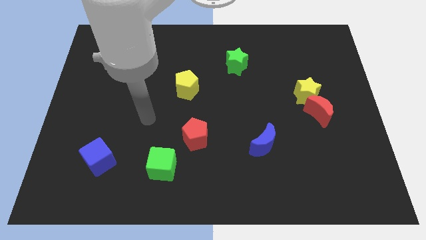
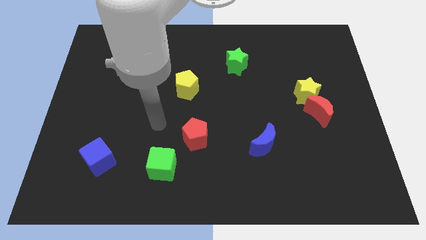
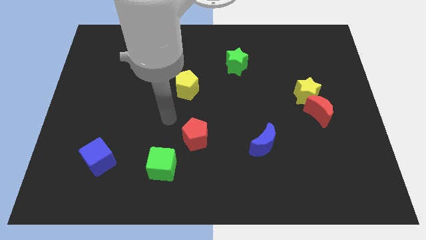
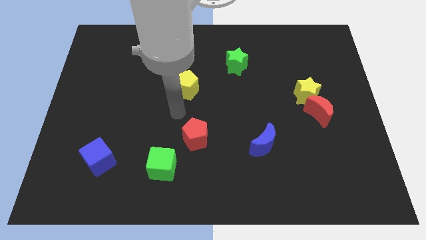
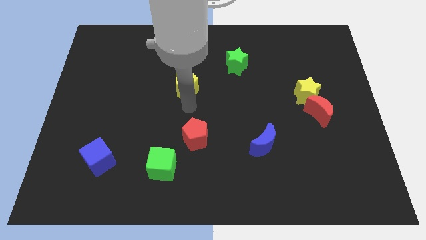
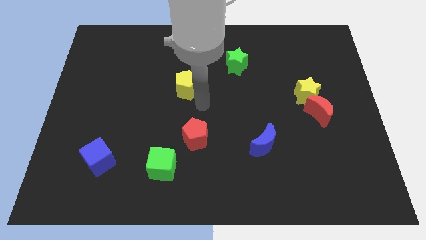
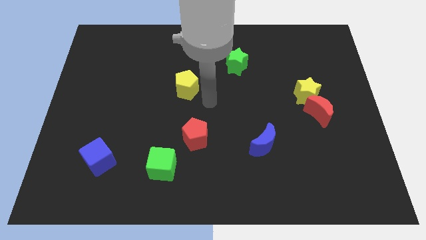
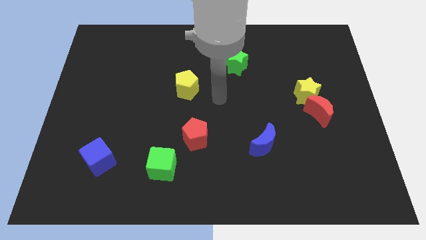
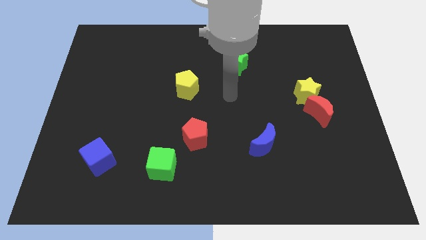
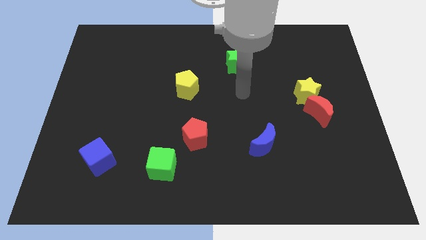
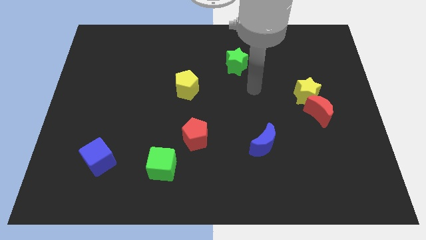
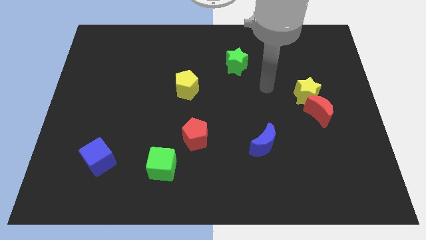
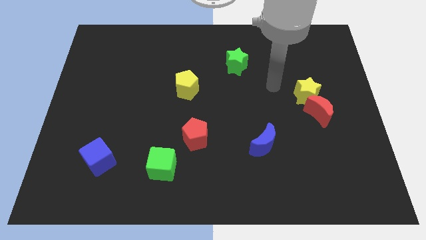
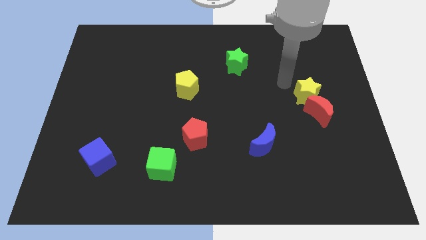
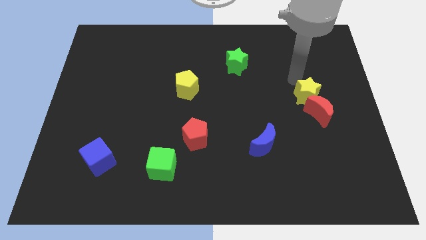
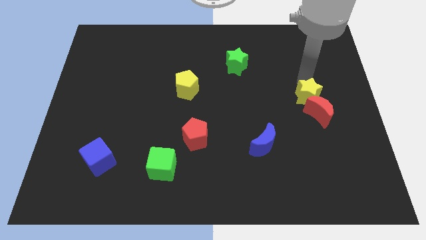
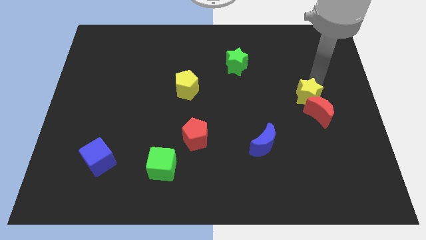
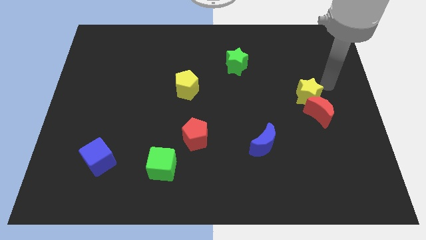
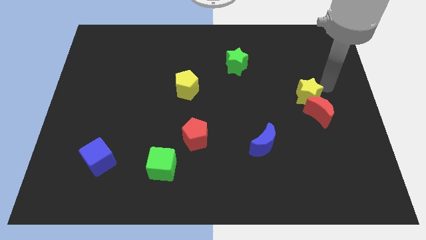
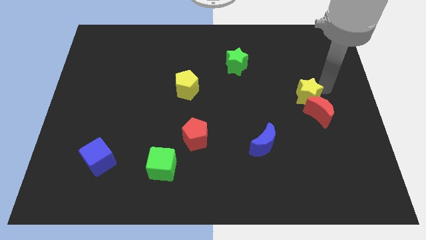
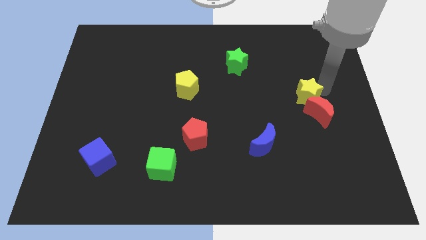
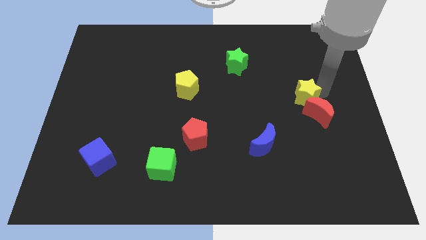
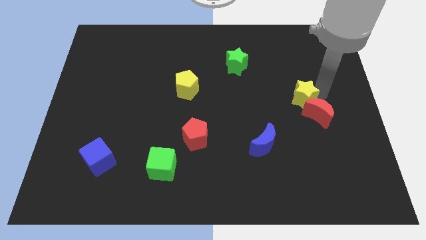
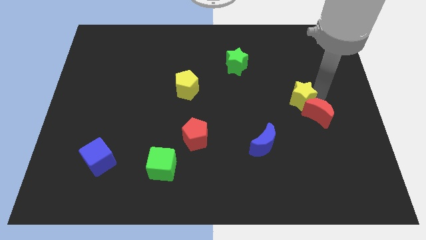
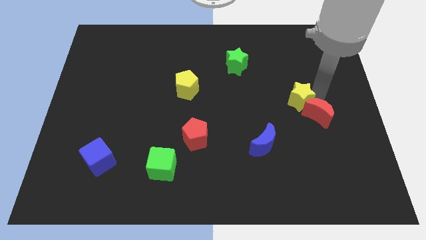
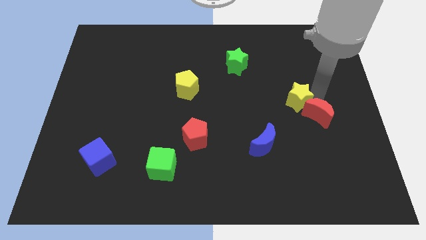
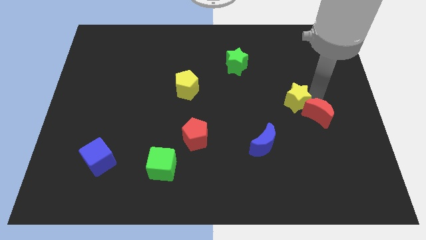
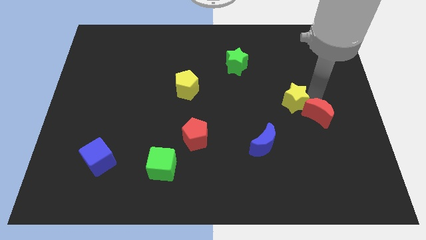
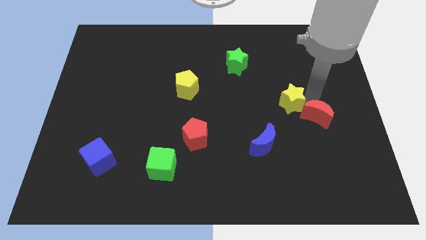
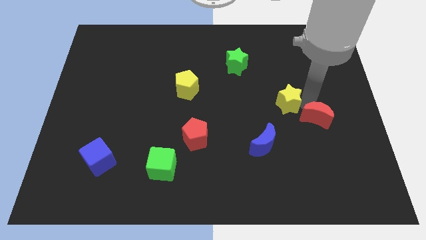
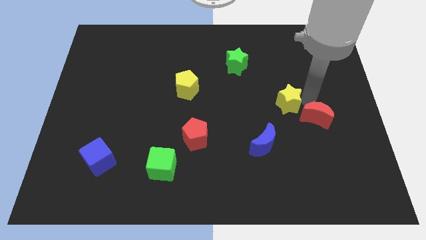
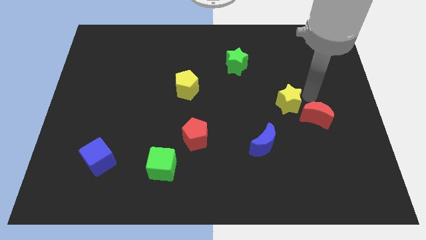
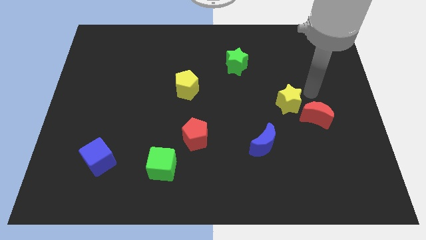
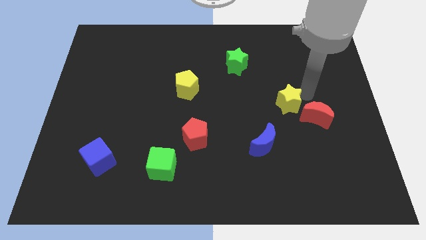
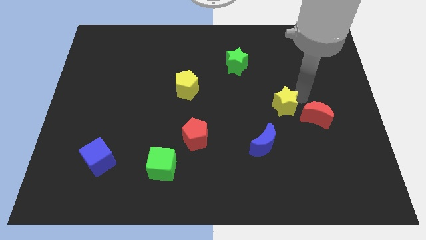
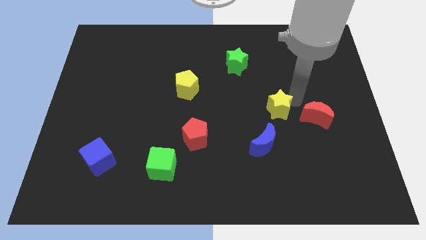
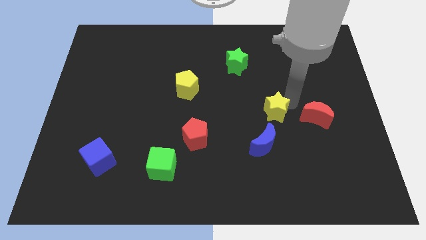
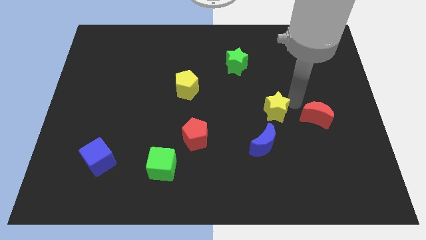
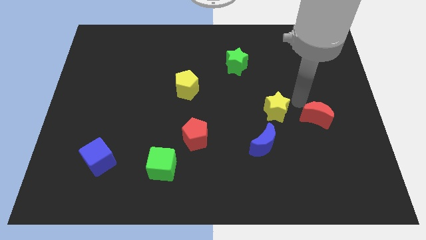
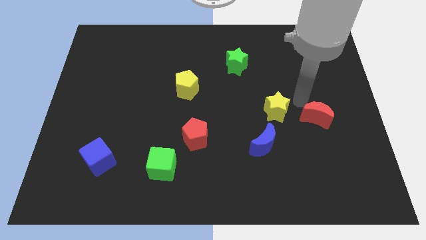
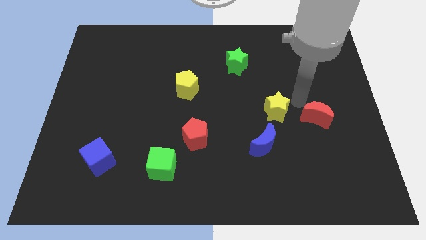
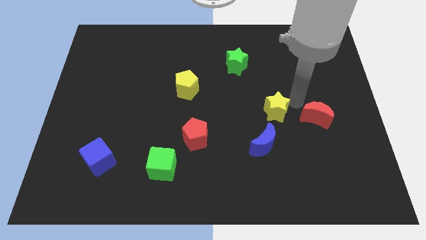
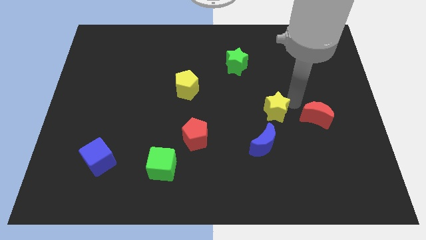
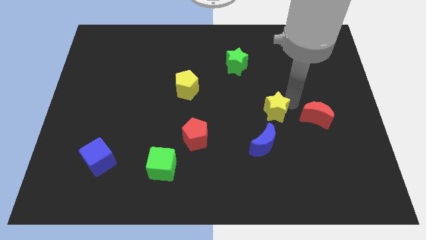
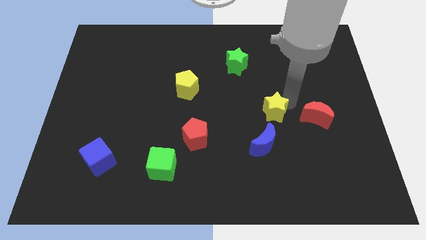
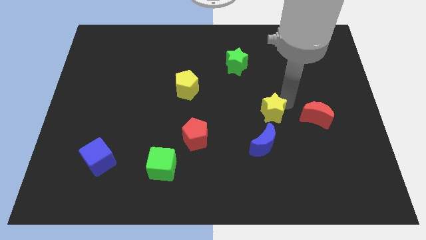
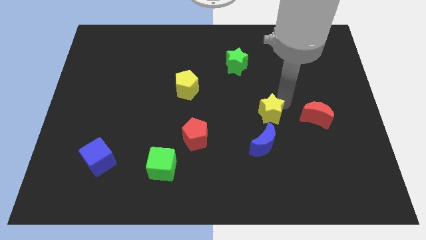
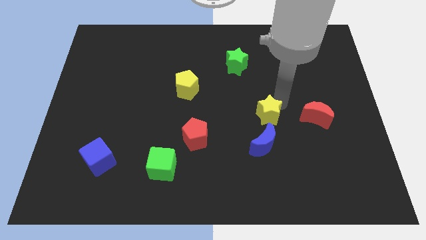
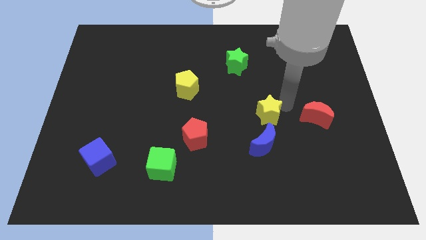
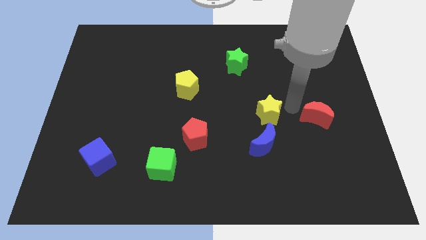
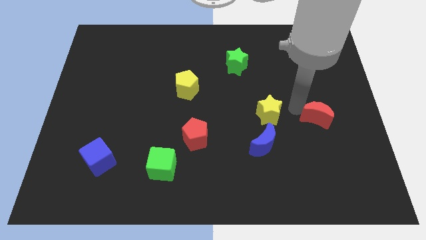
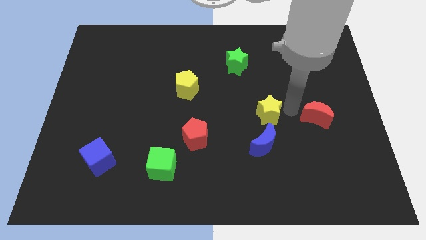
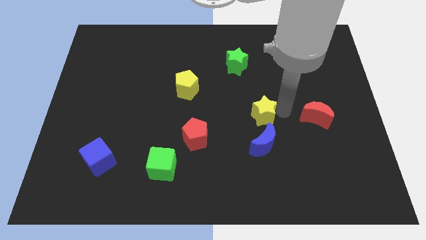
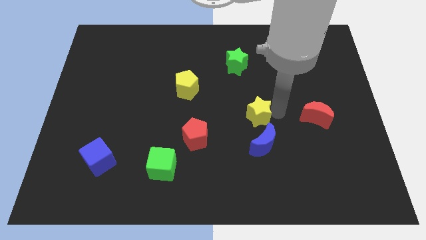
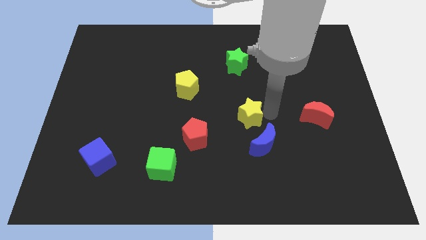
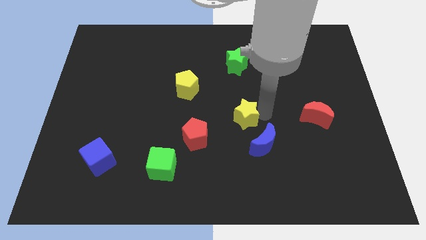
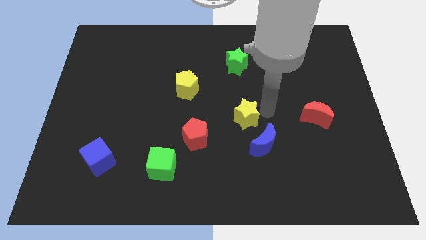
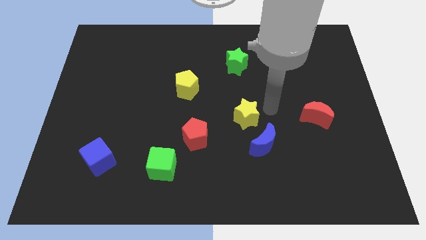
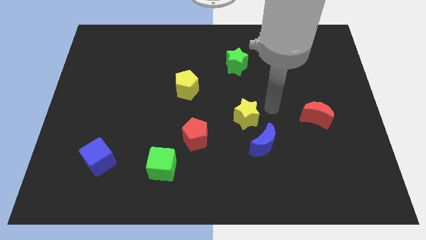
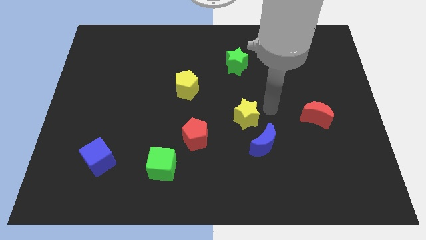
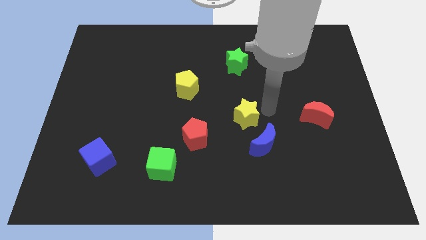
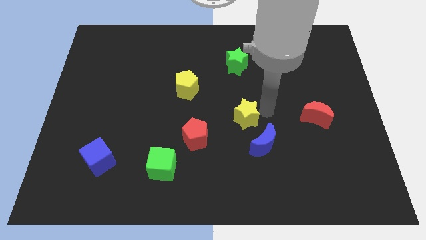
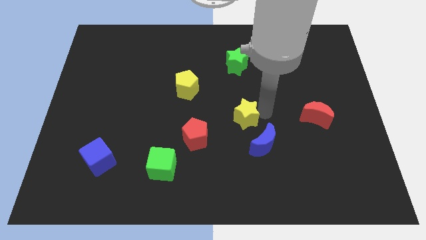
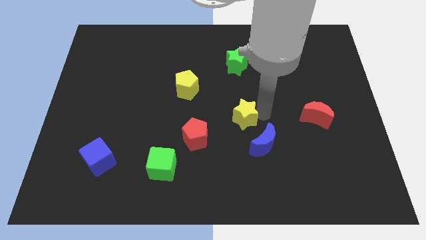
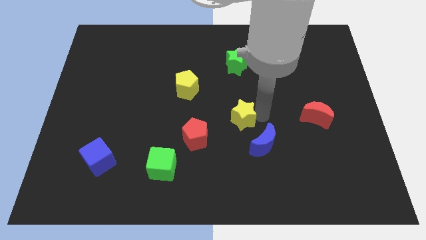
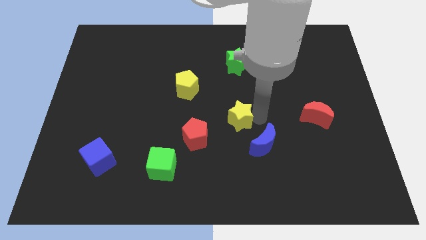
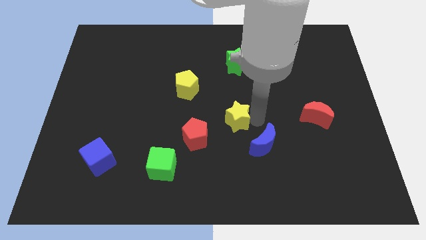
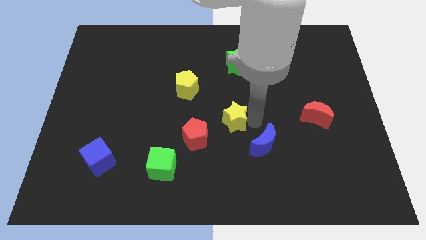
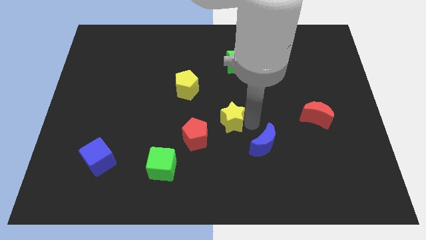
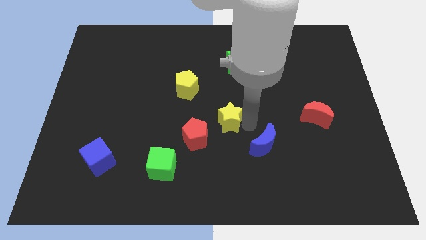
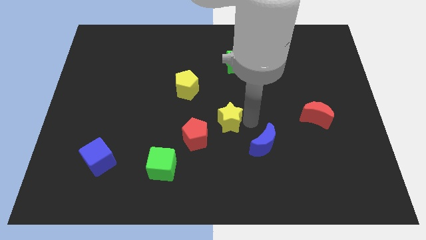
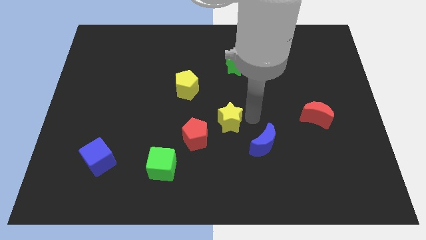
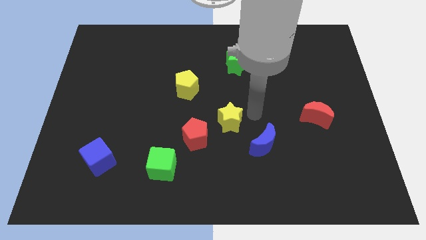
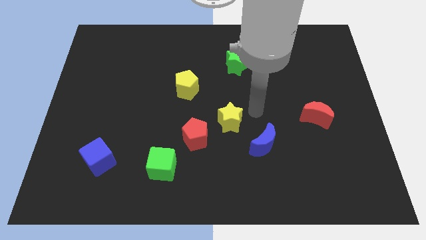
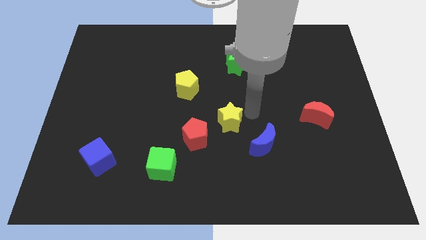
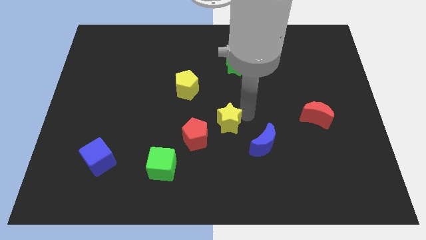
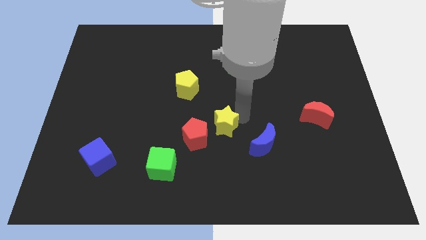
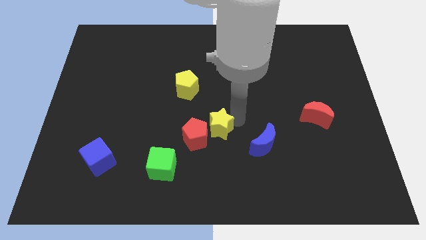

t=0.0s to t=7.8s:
slide the yellow star to the red pentagon

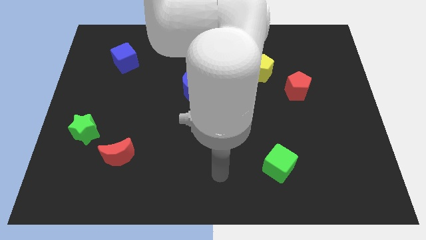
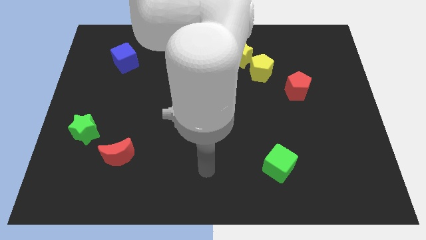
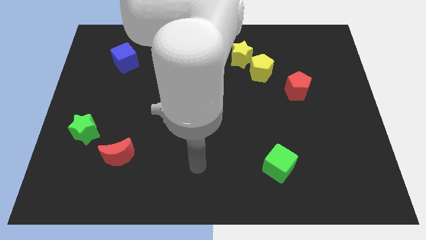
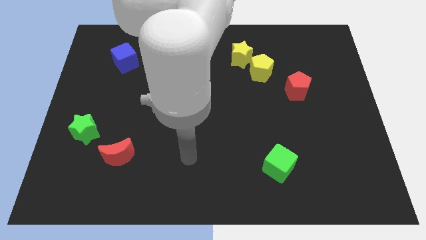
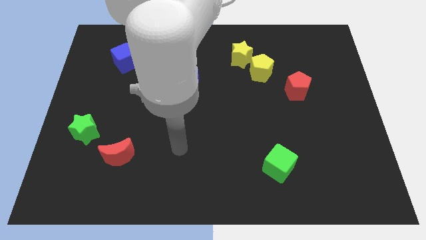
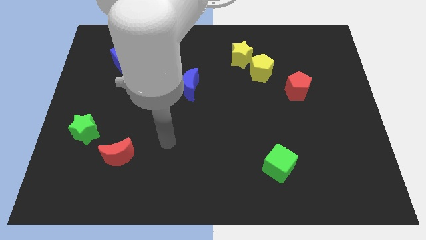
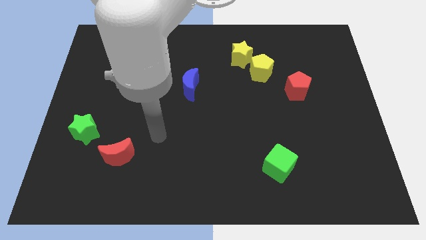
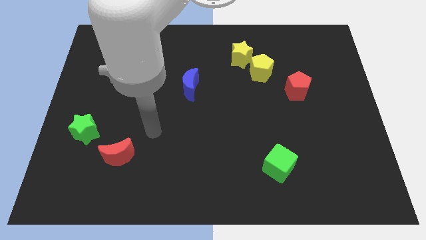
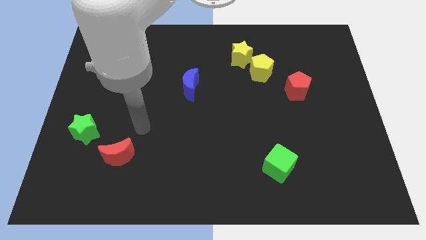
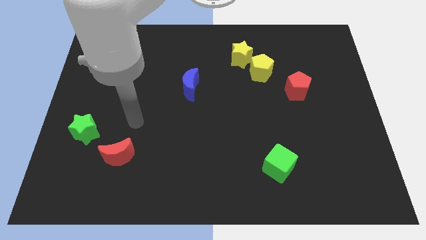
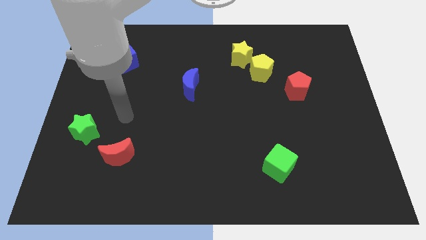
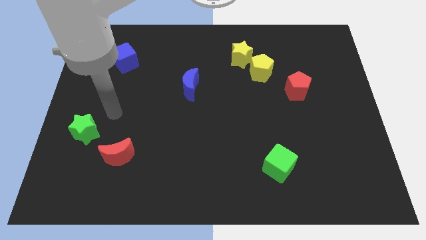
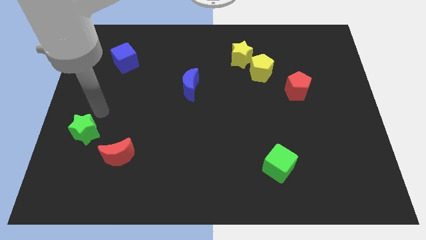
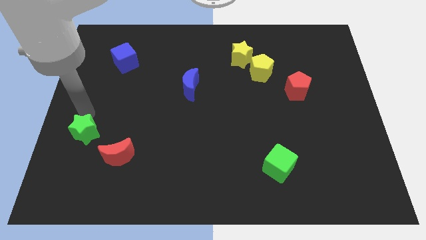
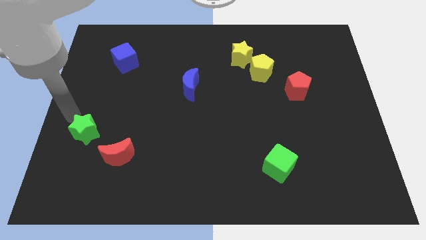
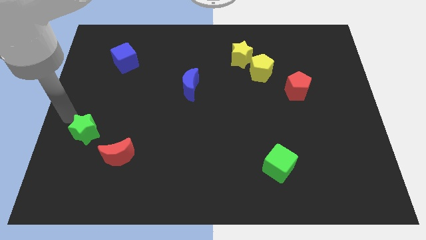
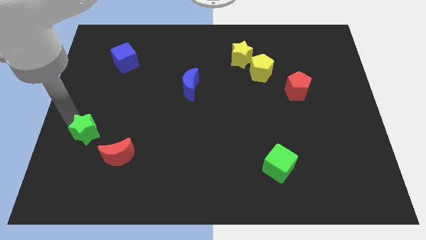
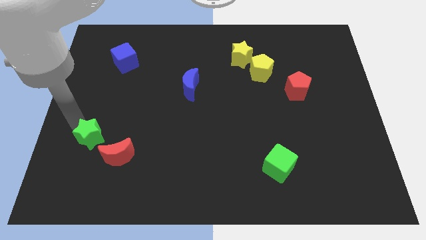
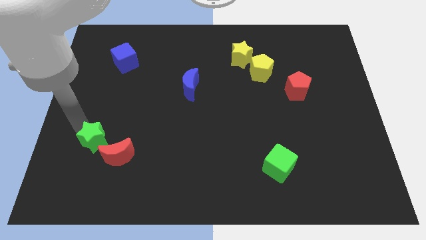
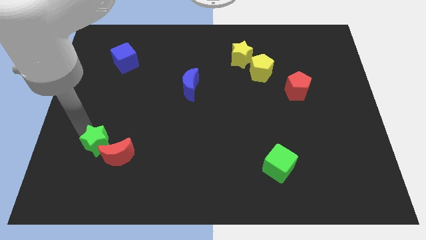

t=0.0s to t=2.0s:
push the green star to the red moon
